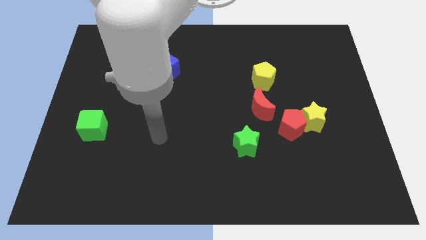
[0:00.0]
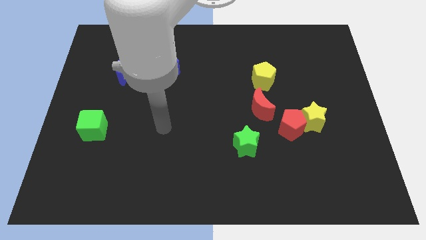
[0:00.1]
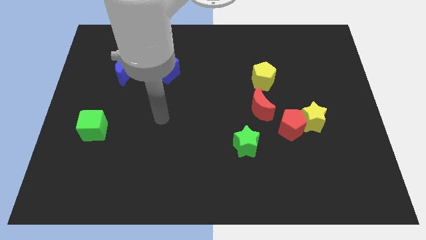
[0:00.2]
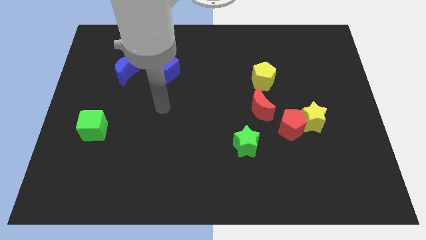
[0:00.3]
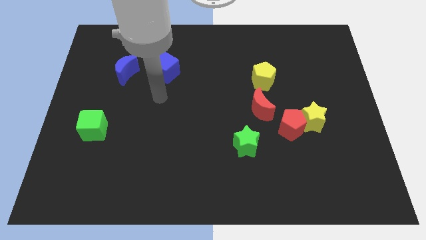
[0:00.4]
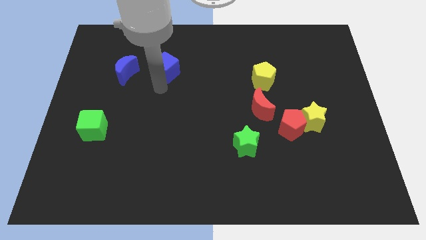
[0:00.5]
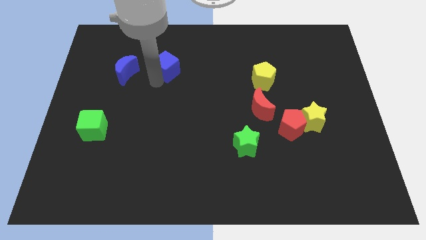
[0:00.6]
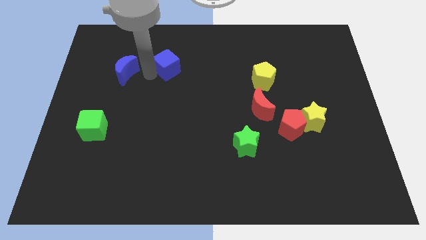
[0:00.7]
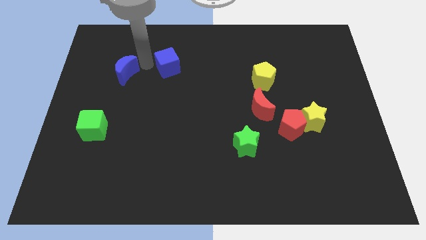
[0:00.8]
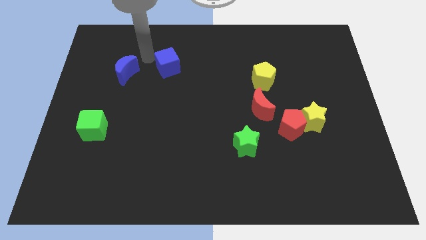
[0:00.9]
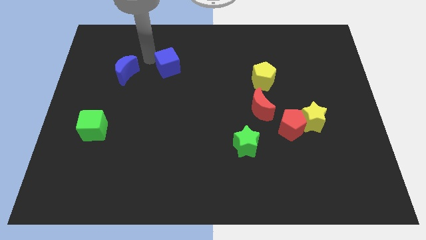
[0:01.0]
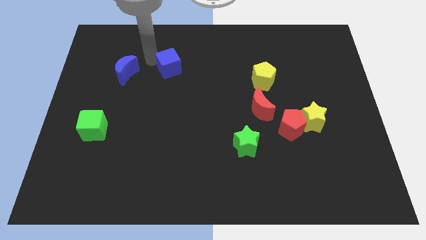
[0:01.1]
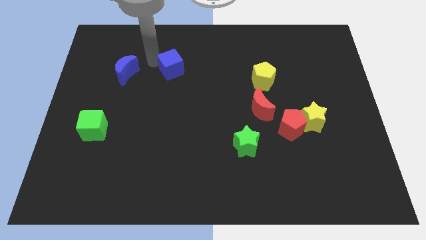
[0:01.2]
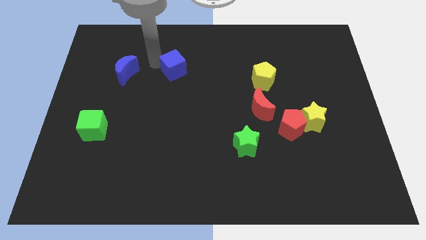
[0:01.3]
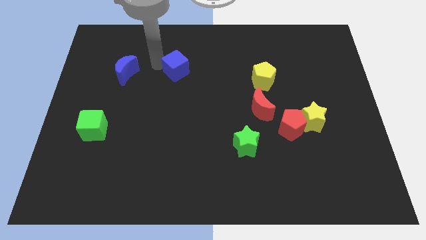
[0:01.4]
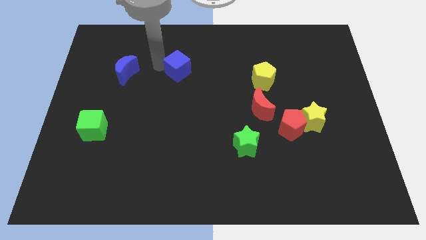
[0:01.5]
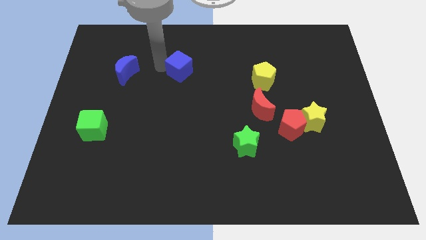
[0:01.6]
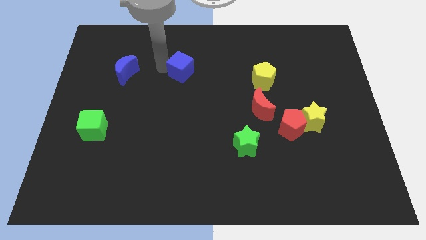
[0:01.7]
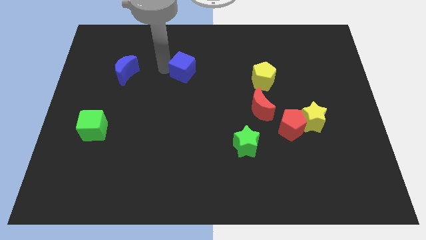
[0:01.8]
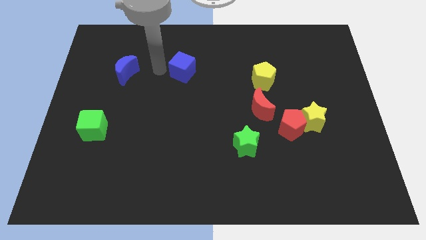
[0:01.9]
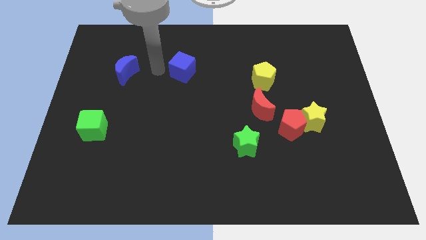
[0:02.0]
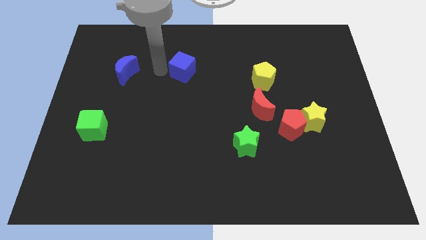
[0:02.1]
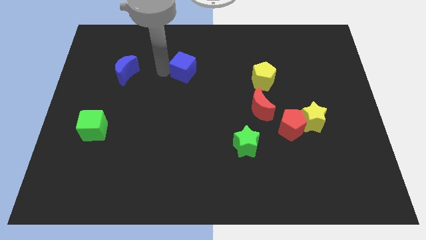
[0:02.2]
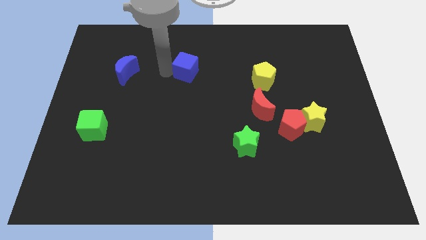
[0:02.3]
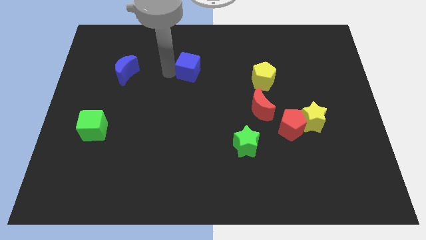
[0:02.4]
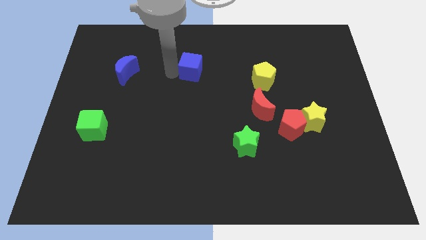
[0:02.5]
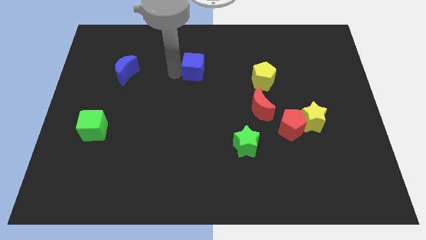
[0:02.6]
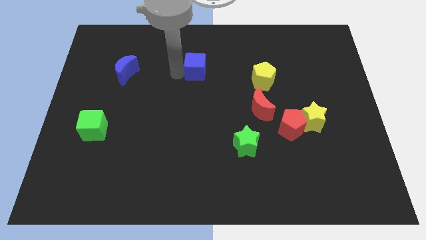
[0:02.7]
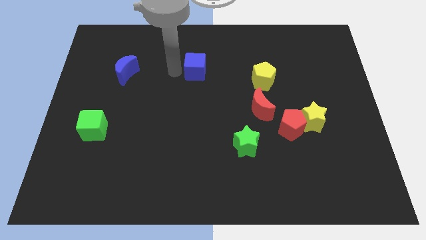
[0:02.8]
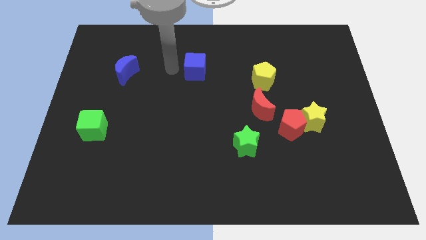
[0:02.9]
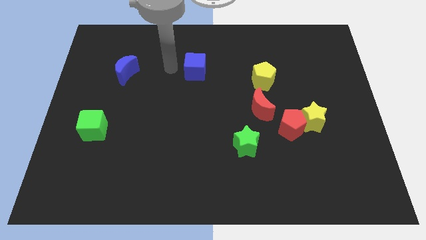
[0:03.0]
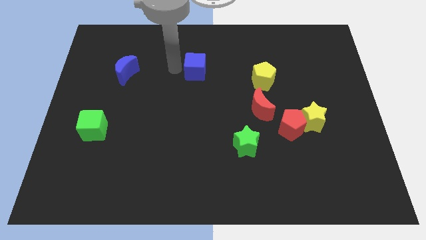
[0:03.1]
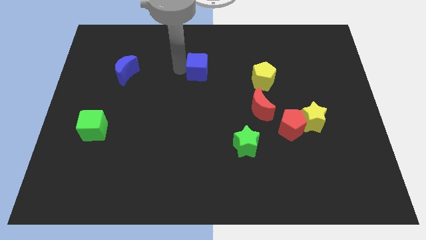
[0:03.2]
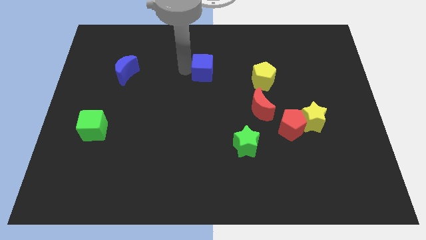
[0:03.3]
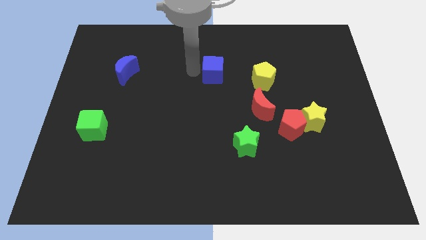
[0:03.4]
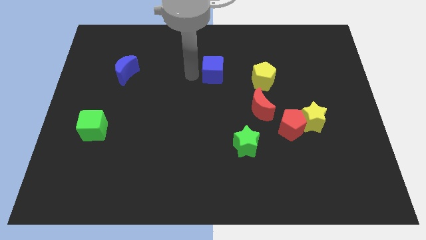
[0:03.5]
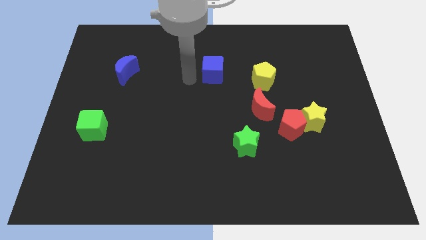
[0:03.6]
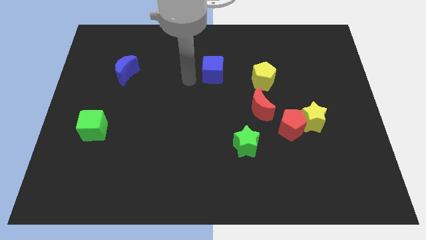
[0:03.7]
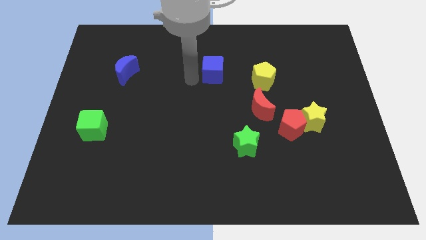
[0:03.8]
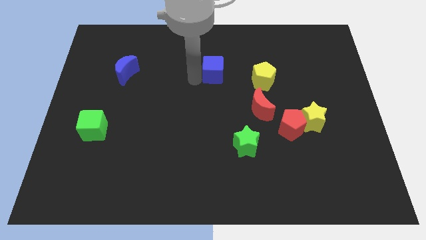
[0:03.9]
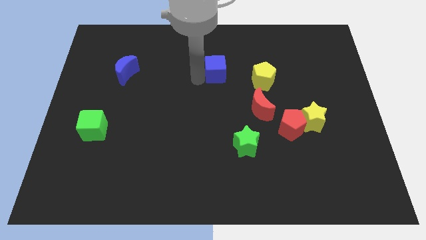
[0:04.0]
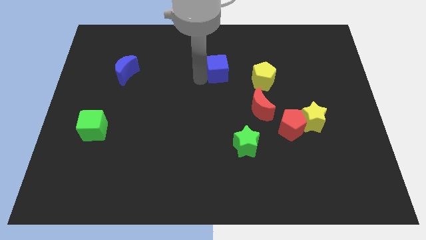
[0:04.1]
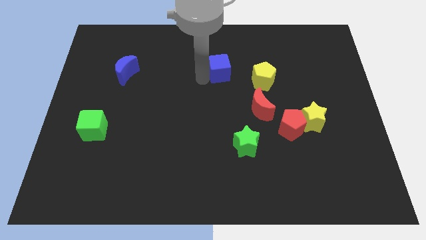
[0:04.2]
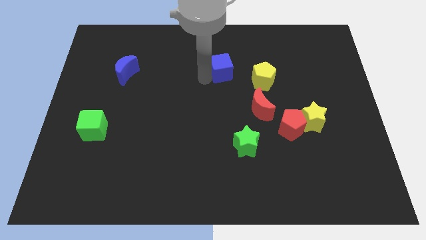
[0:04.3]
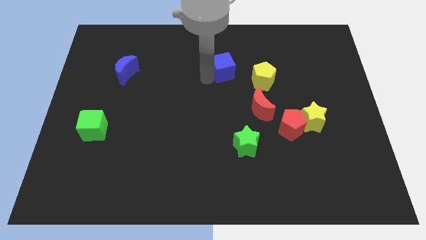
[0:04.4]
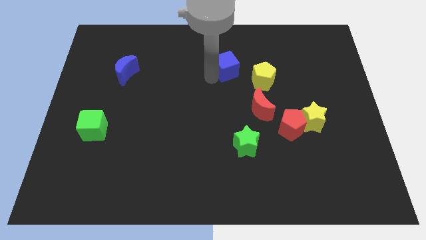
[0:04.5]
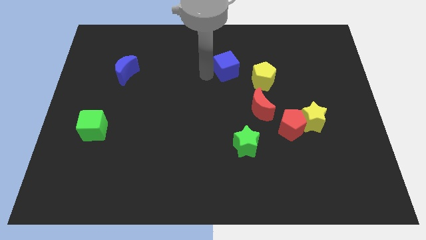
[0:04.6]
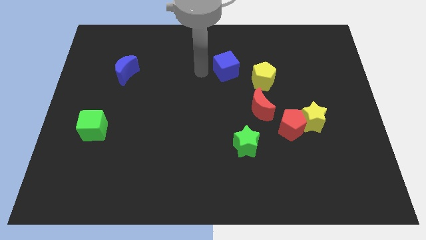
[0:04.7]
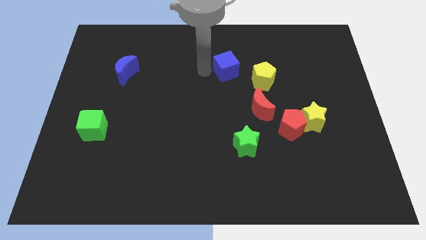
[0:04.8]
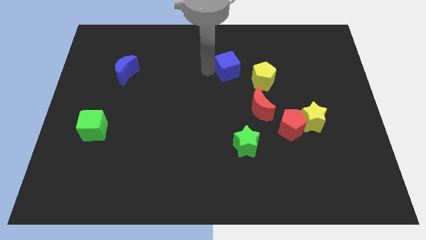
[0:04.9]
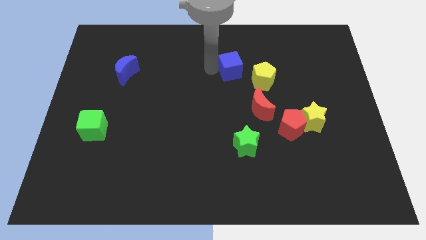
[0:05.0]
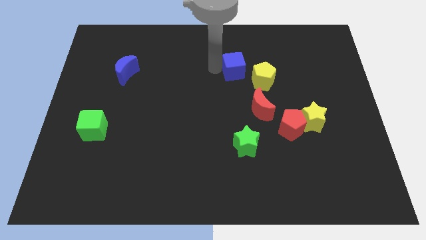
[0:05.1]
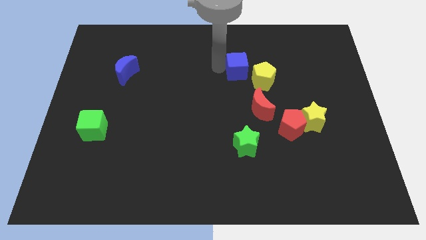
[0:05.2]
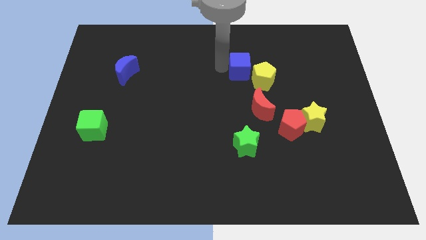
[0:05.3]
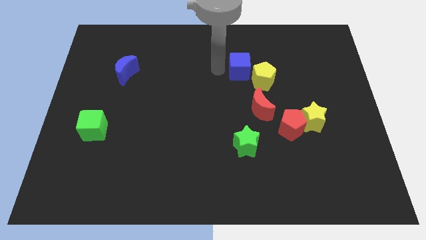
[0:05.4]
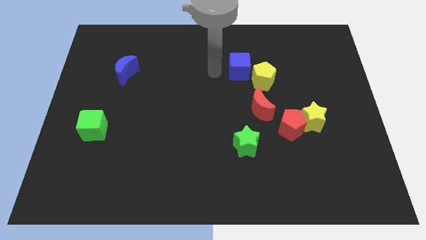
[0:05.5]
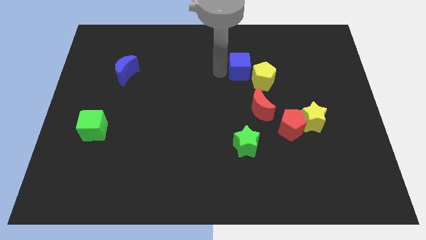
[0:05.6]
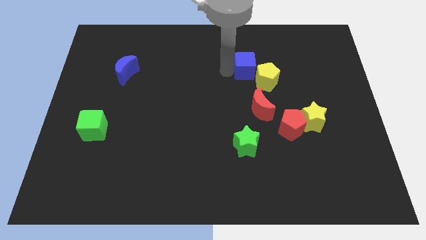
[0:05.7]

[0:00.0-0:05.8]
push the blue cube right

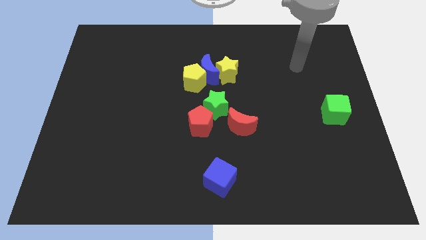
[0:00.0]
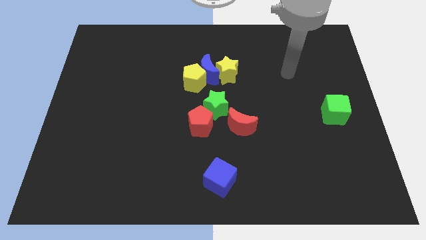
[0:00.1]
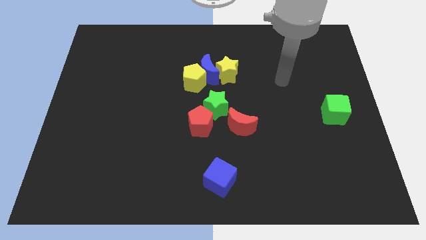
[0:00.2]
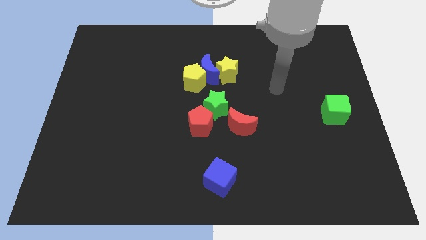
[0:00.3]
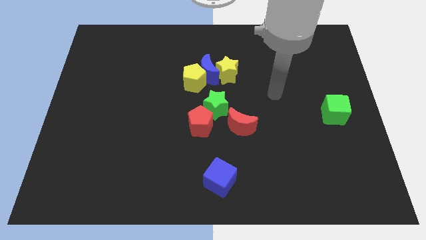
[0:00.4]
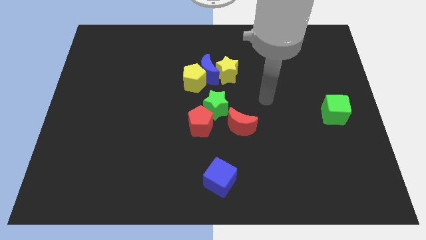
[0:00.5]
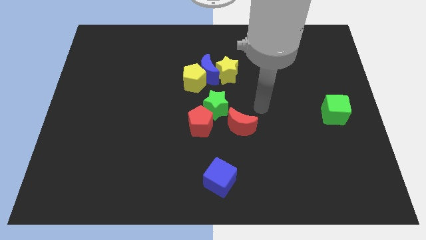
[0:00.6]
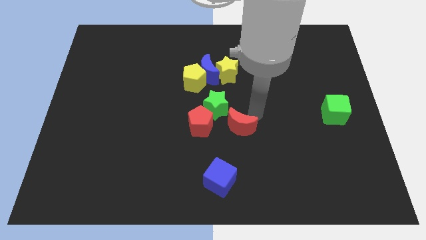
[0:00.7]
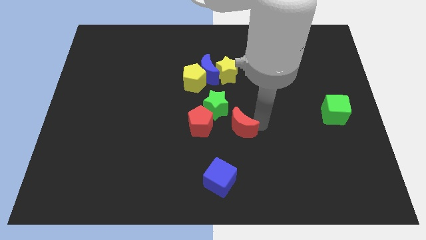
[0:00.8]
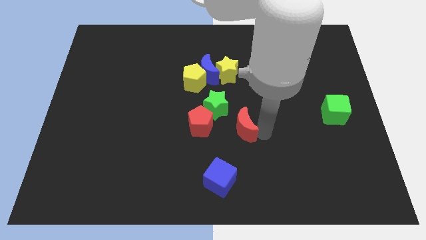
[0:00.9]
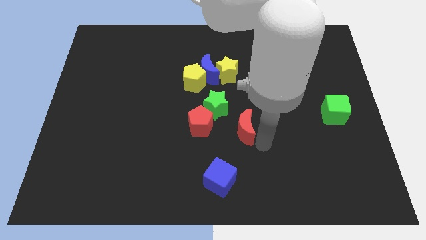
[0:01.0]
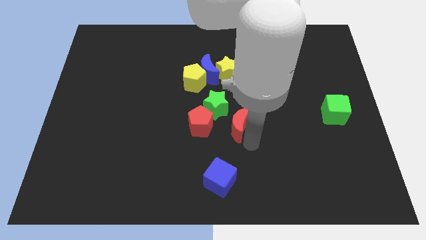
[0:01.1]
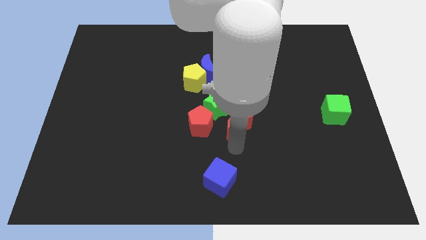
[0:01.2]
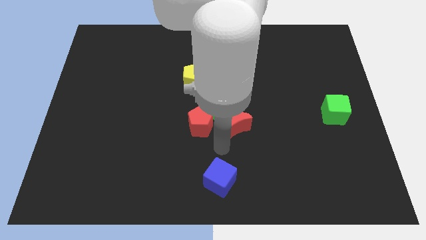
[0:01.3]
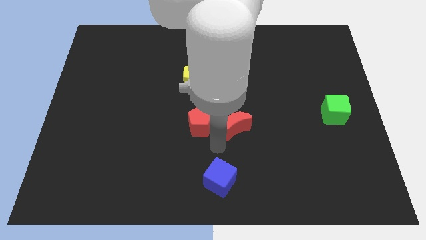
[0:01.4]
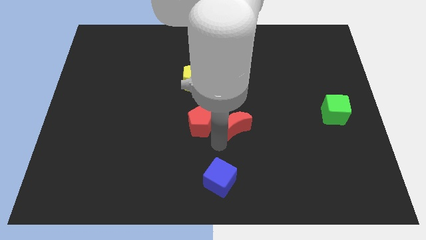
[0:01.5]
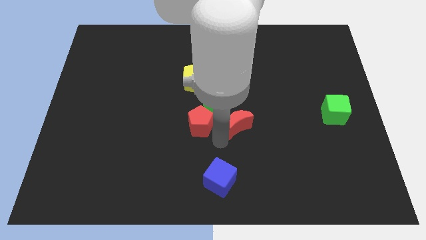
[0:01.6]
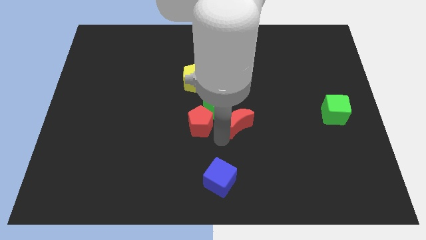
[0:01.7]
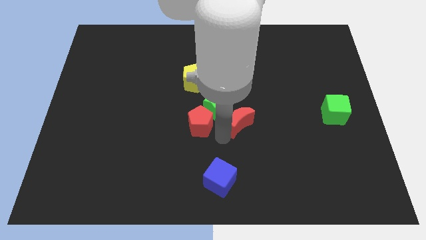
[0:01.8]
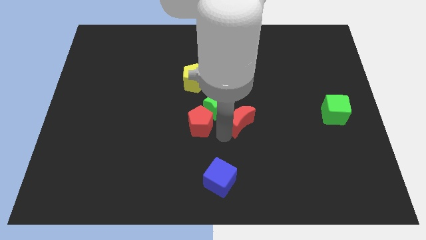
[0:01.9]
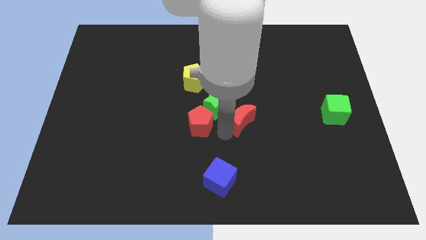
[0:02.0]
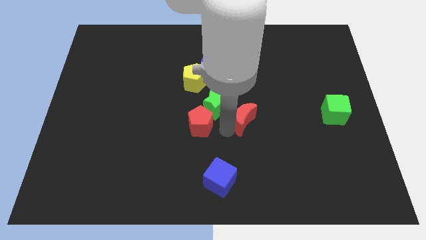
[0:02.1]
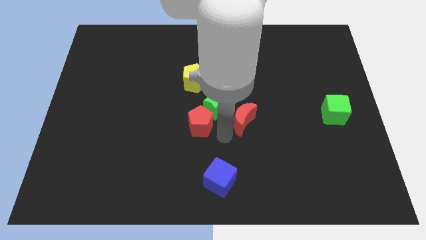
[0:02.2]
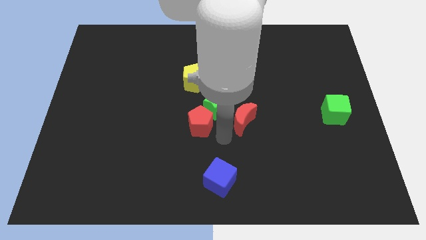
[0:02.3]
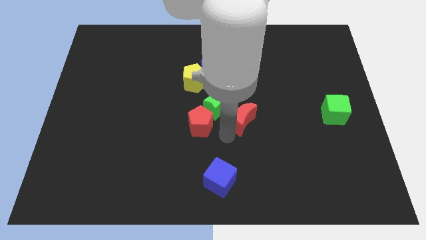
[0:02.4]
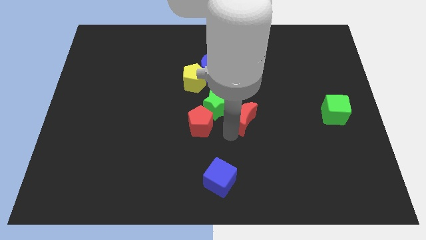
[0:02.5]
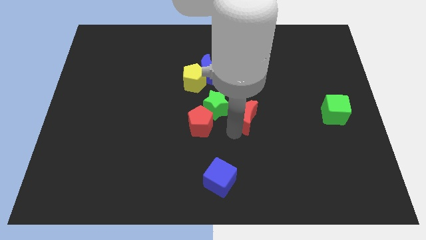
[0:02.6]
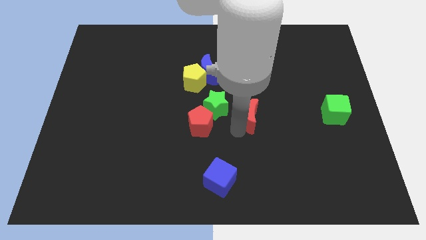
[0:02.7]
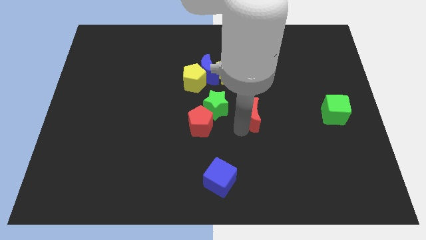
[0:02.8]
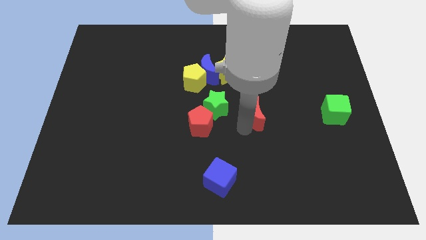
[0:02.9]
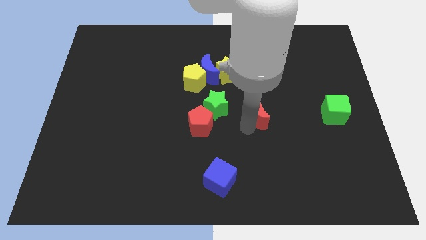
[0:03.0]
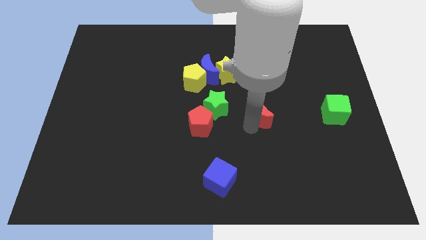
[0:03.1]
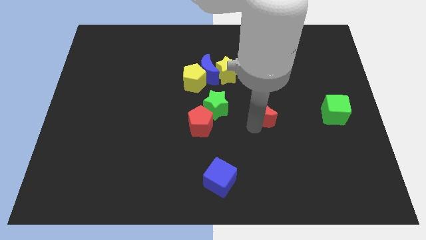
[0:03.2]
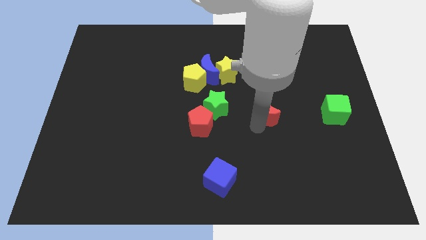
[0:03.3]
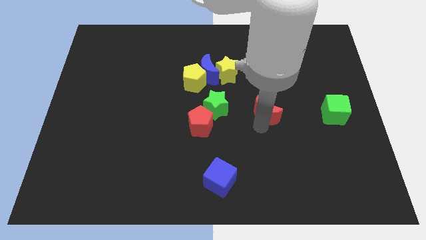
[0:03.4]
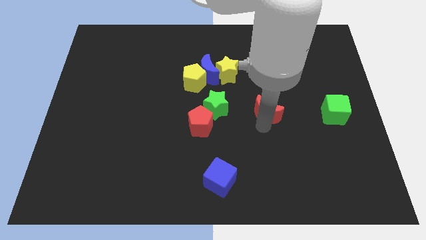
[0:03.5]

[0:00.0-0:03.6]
slightly slide the red moon upwards and then right
